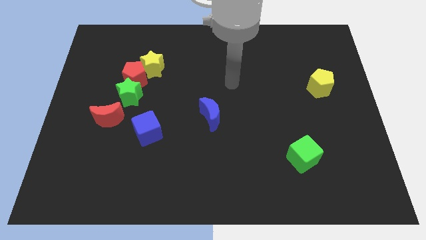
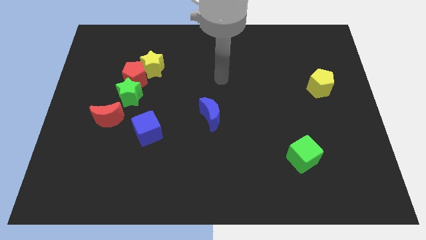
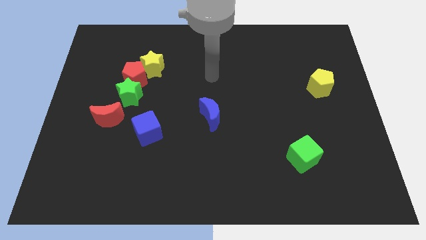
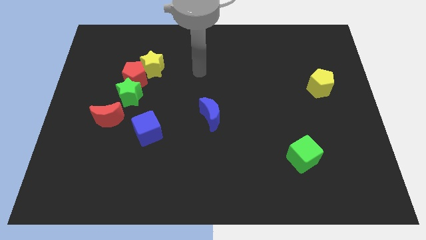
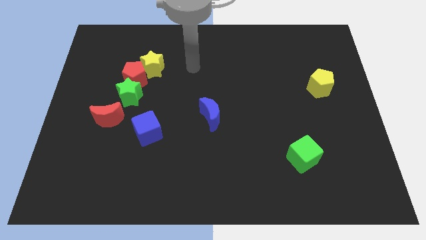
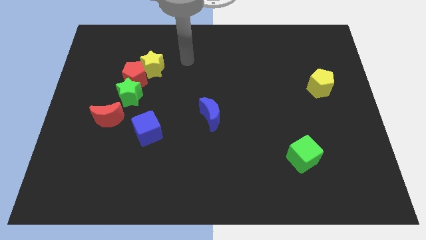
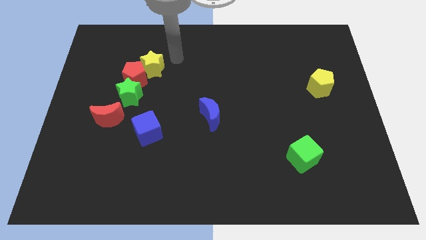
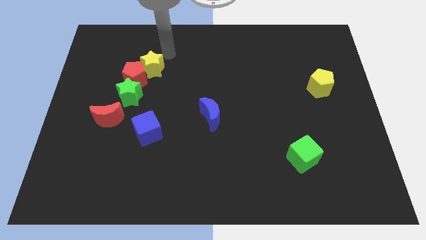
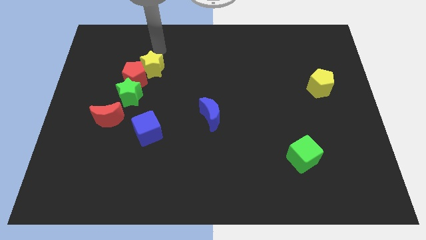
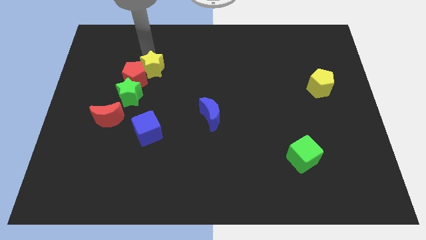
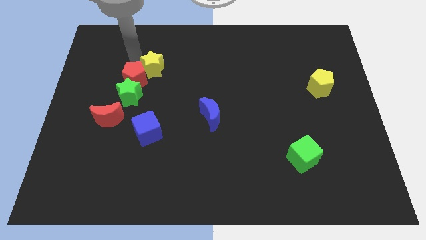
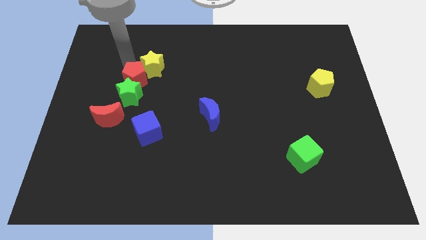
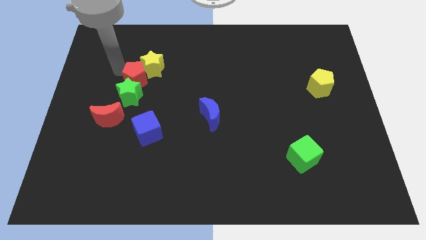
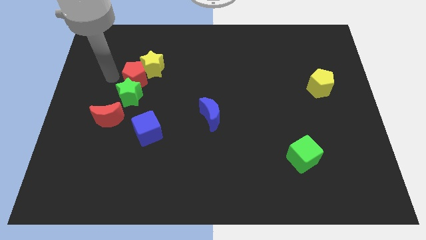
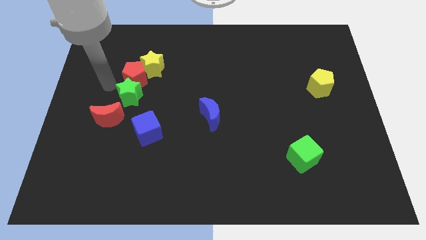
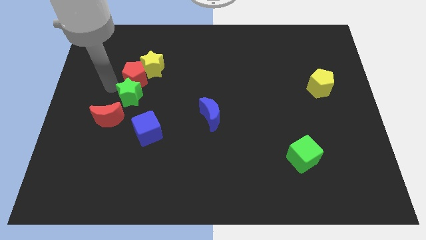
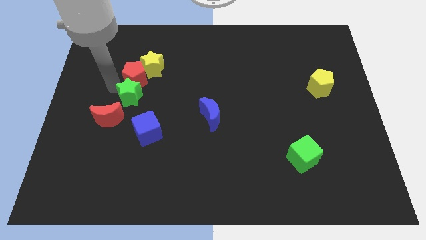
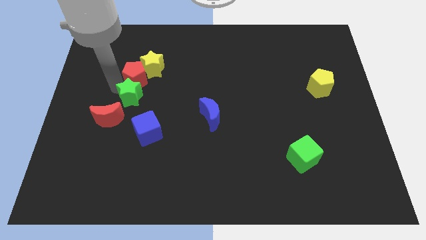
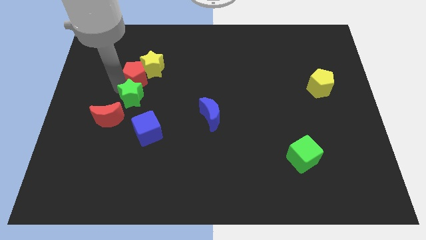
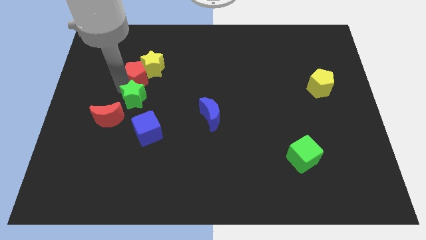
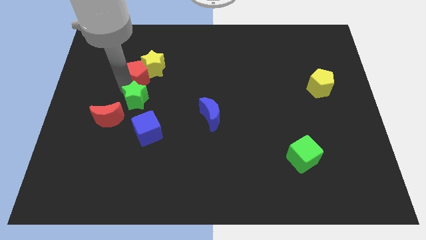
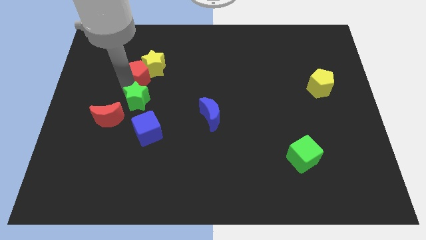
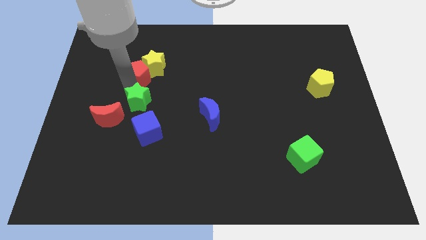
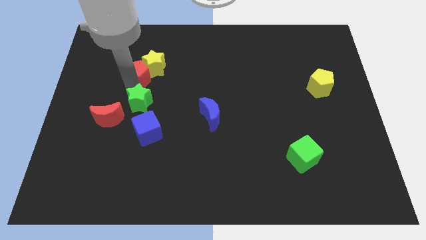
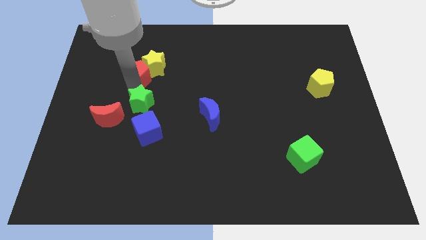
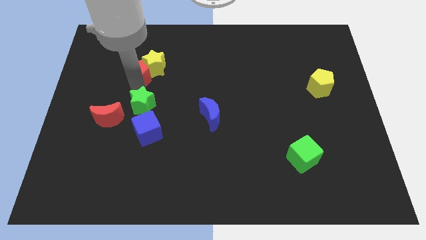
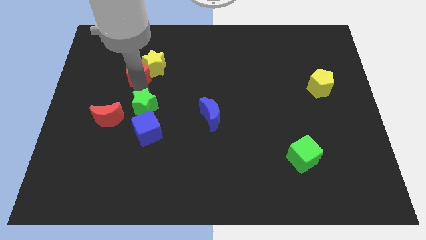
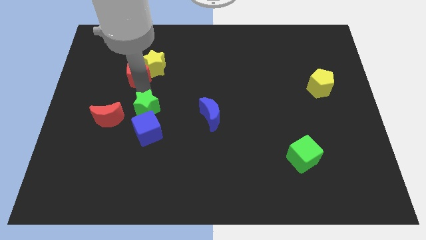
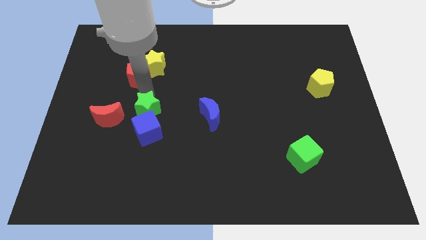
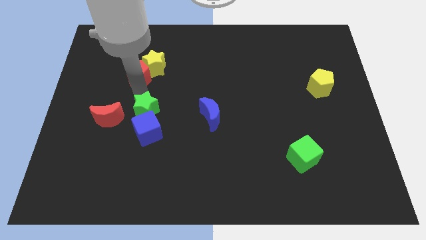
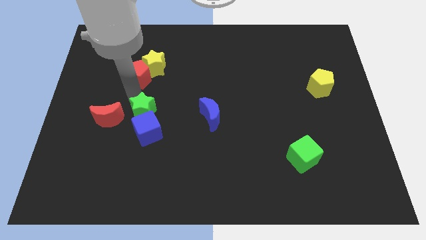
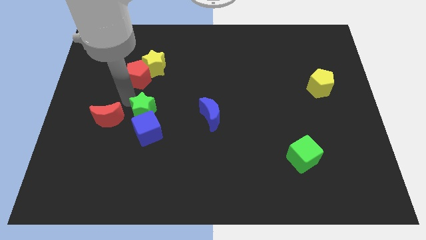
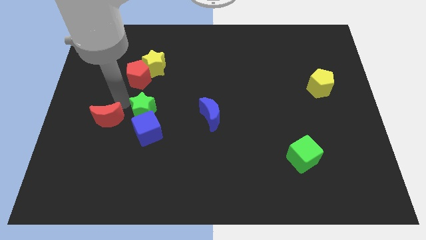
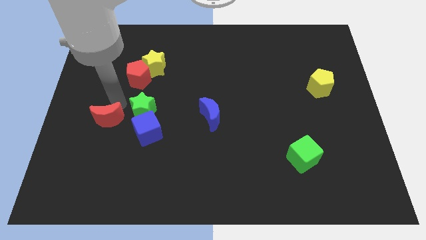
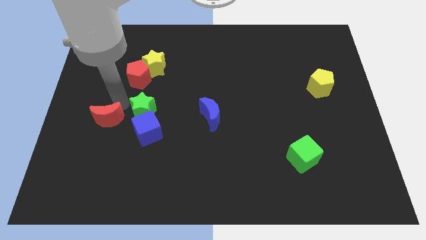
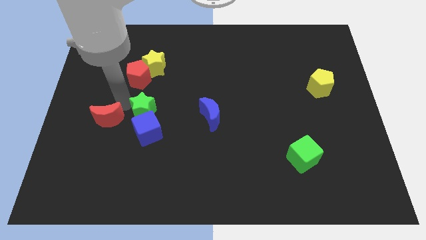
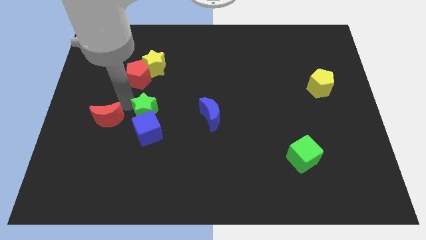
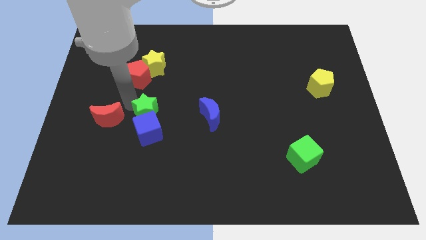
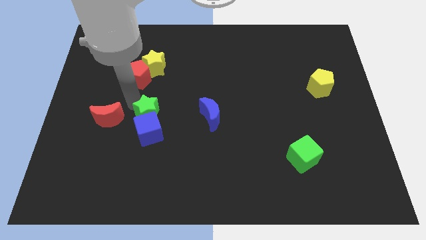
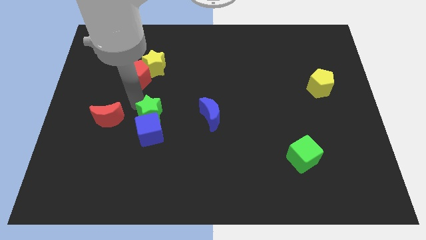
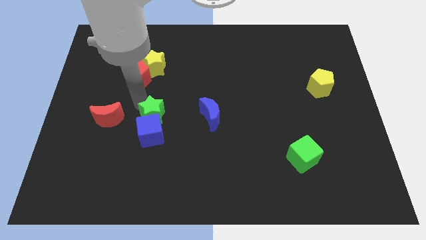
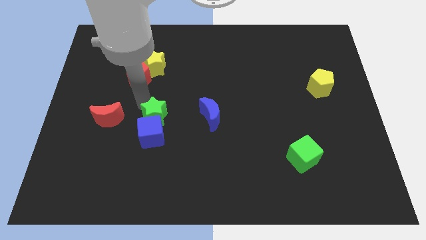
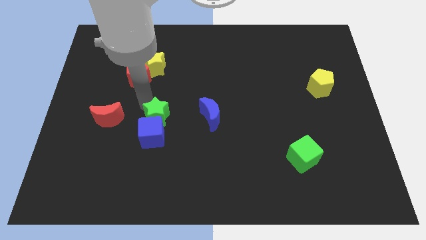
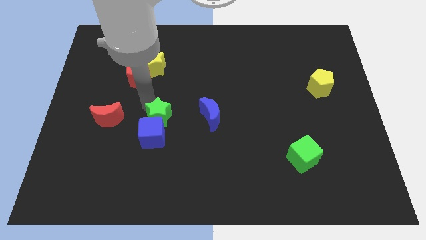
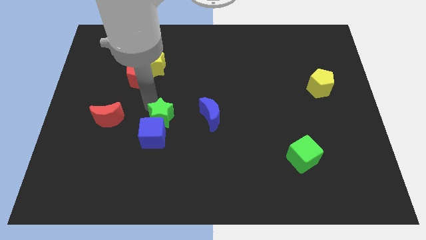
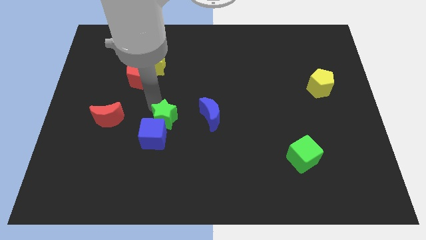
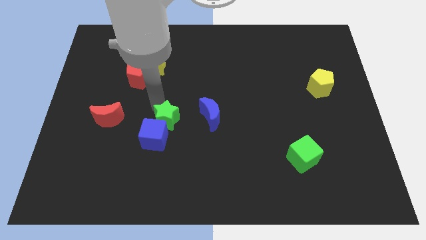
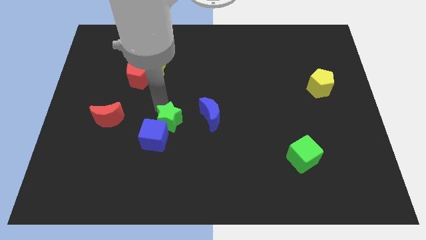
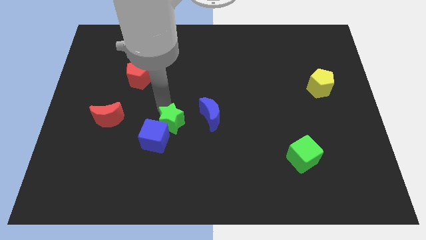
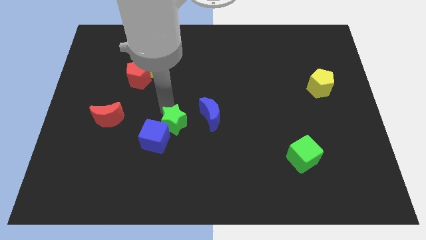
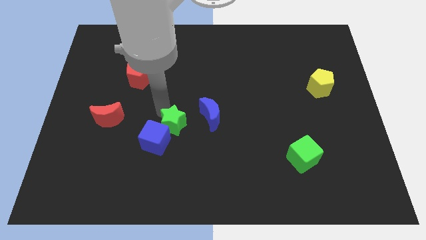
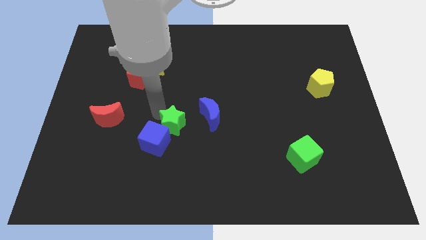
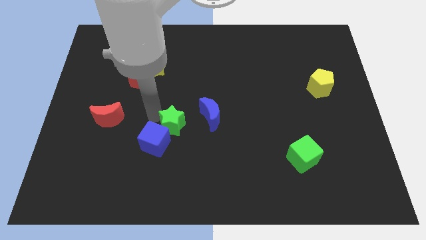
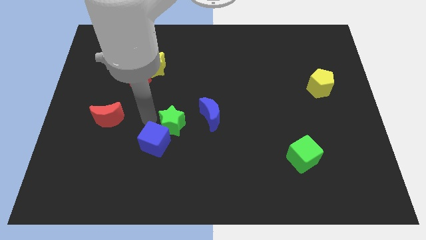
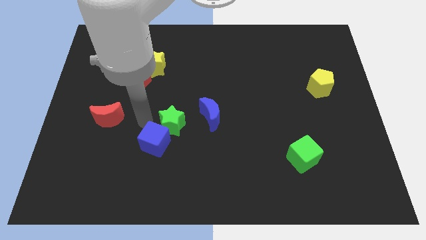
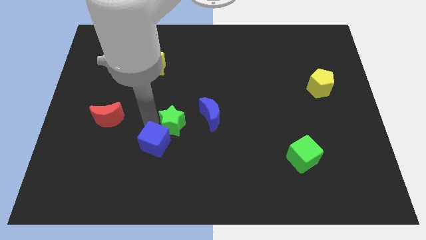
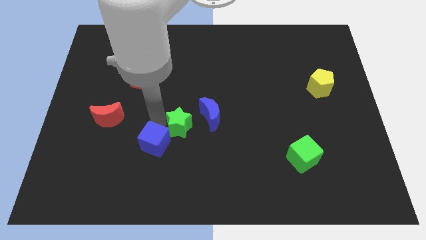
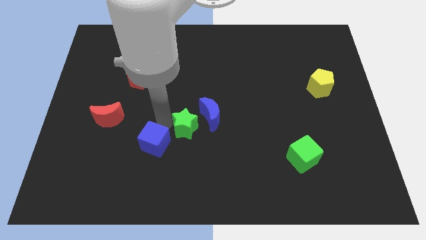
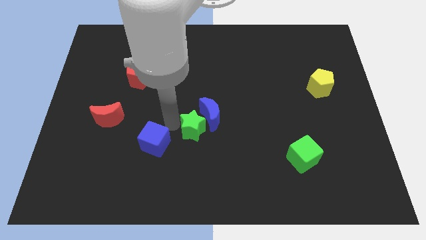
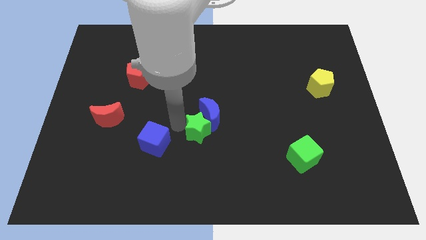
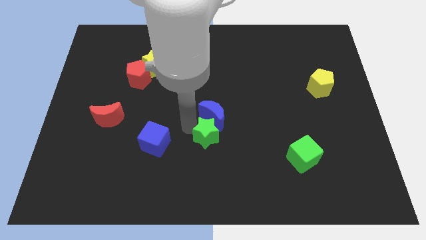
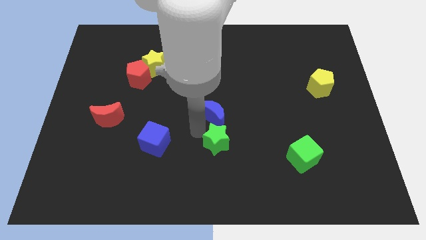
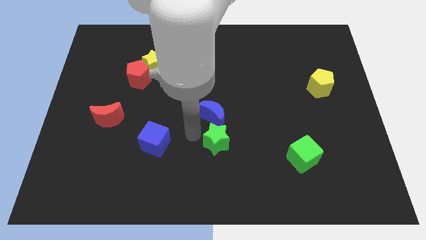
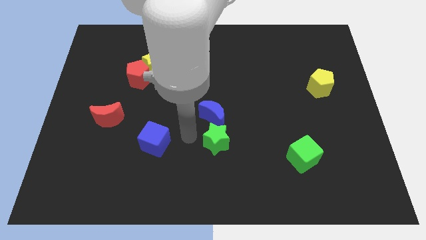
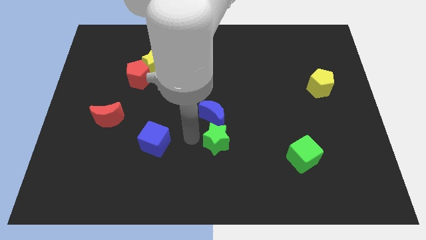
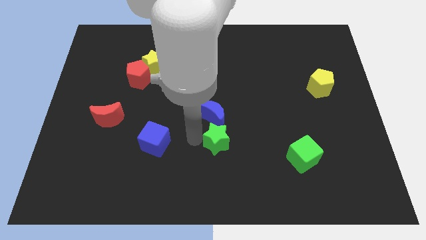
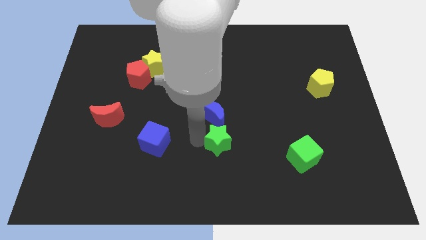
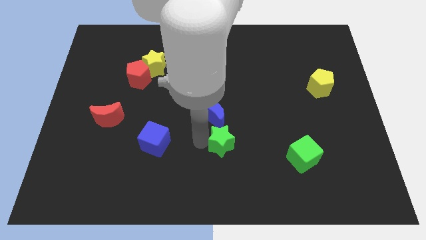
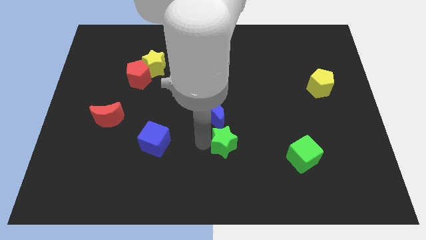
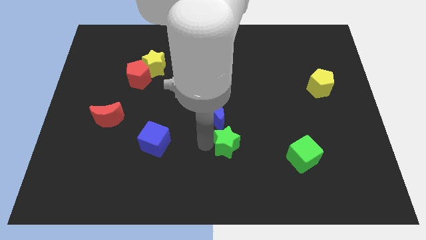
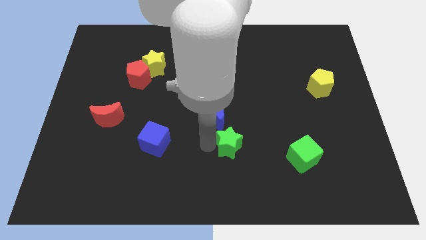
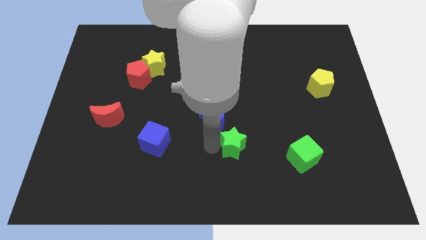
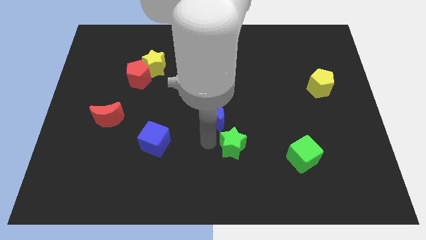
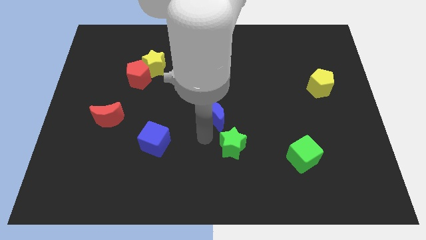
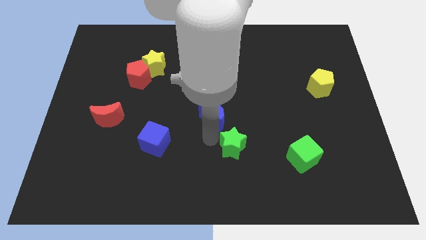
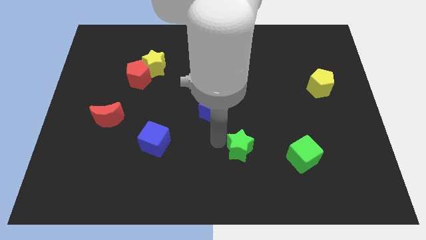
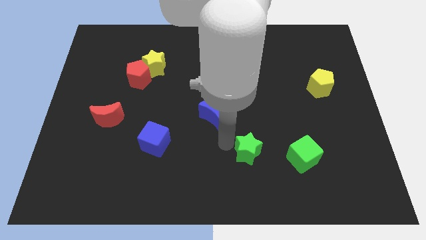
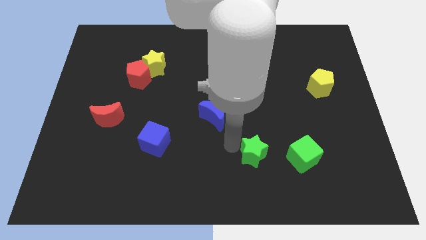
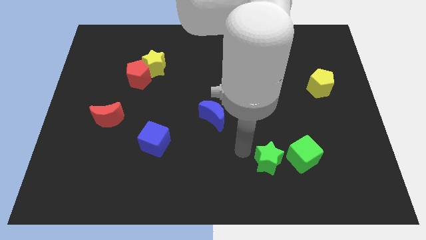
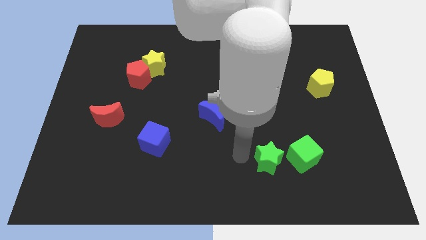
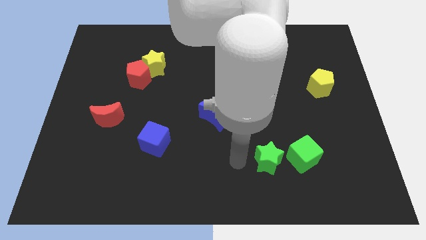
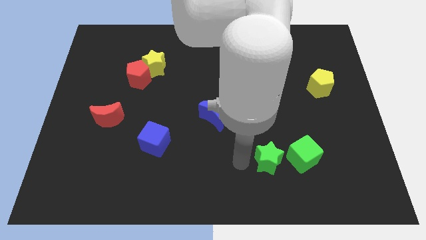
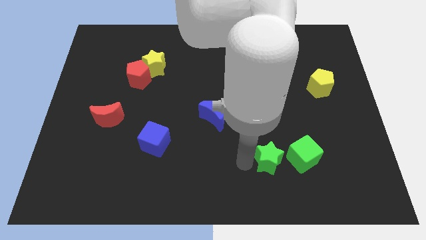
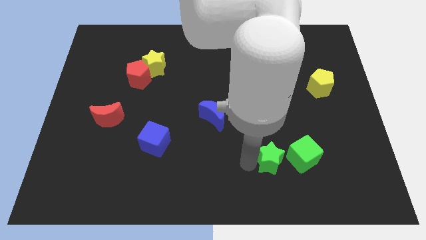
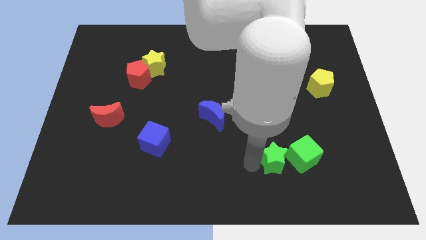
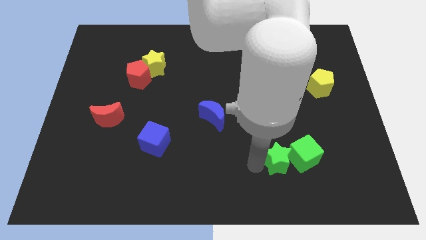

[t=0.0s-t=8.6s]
put the green star to the green cube
